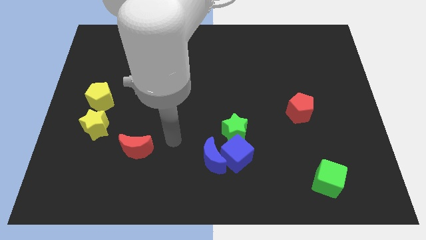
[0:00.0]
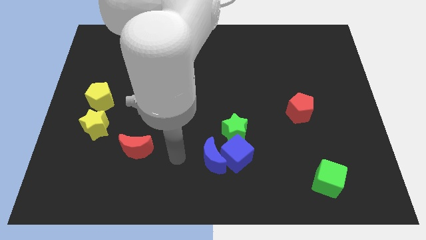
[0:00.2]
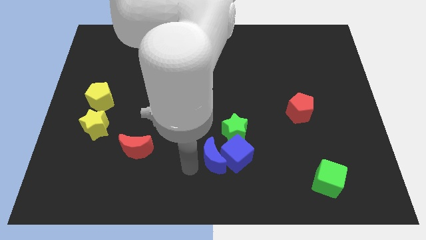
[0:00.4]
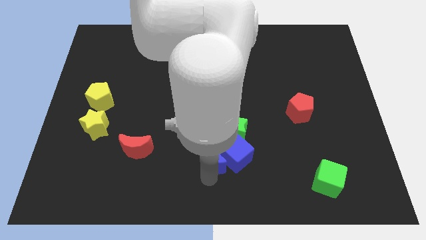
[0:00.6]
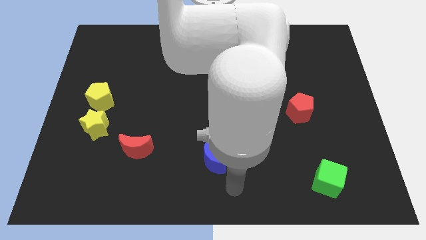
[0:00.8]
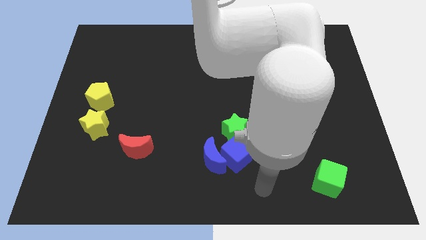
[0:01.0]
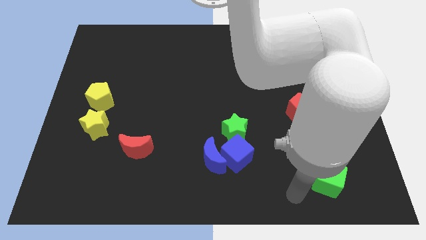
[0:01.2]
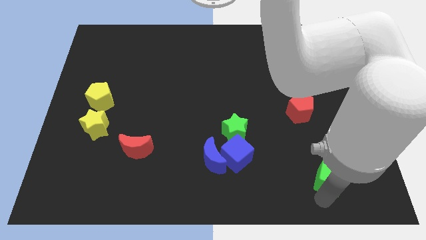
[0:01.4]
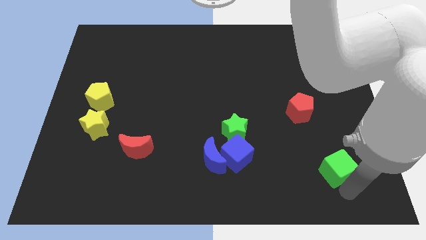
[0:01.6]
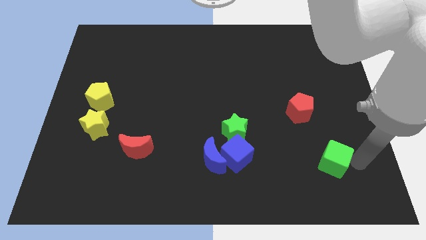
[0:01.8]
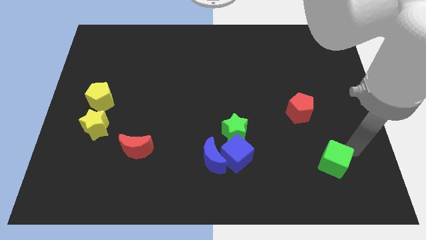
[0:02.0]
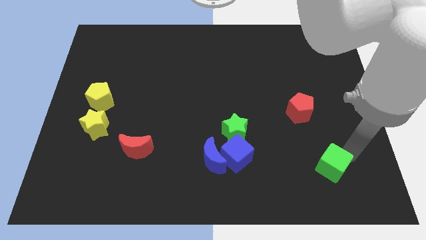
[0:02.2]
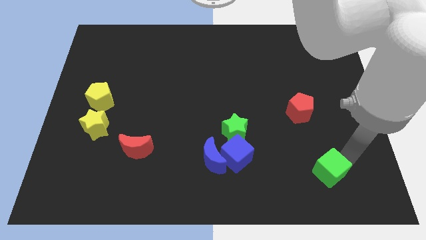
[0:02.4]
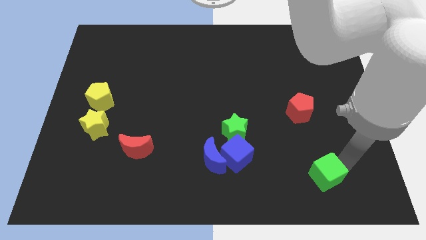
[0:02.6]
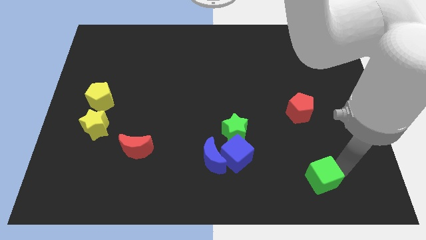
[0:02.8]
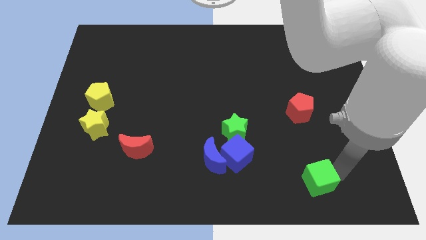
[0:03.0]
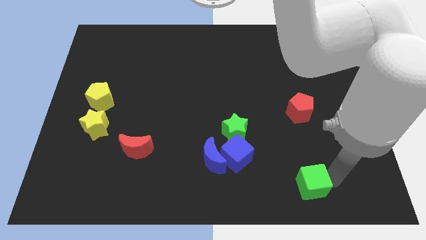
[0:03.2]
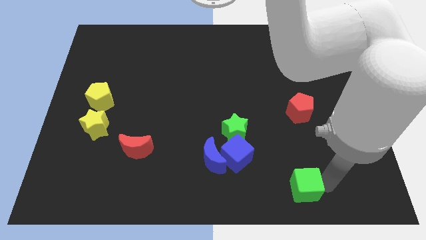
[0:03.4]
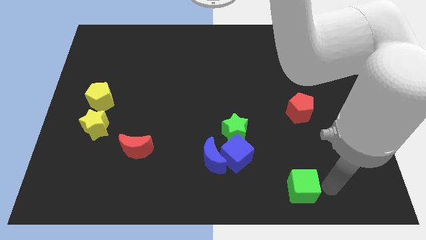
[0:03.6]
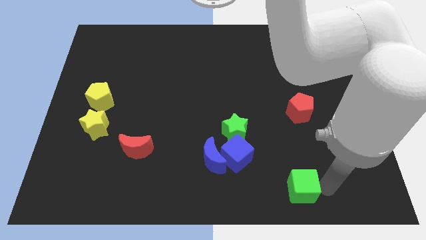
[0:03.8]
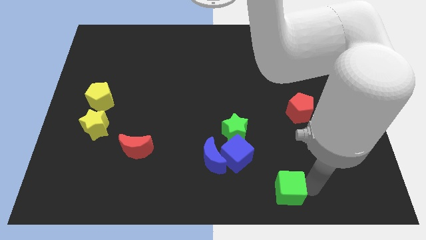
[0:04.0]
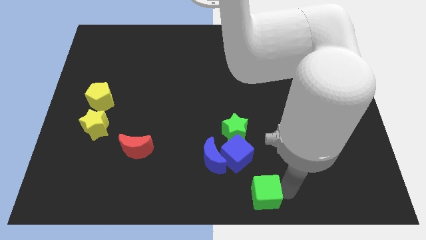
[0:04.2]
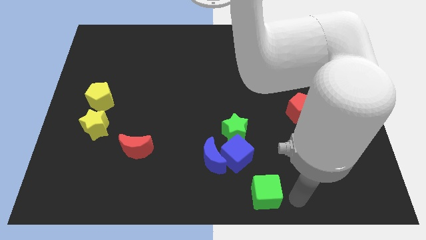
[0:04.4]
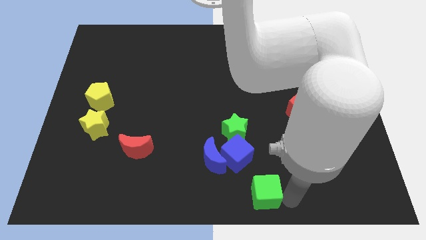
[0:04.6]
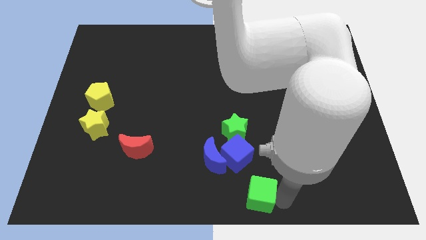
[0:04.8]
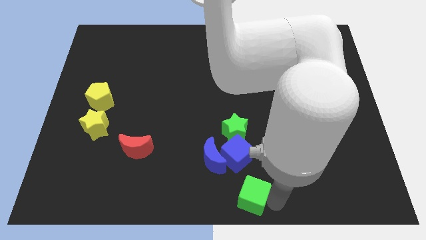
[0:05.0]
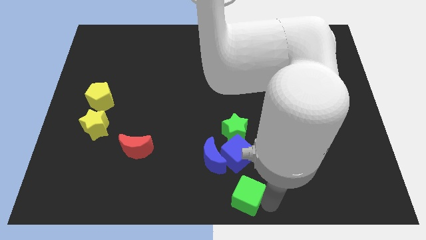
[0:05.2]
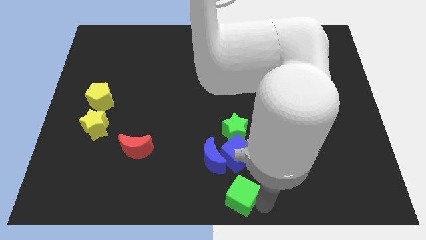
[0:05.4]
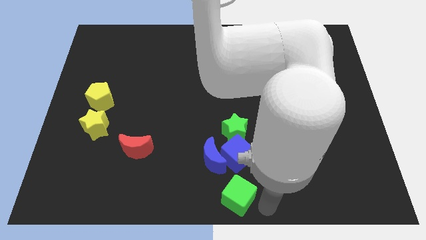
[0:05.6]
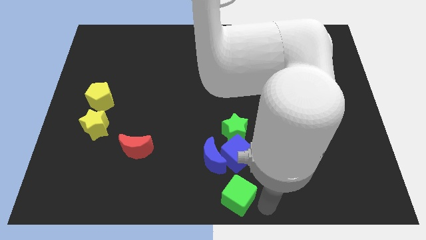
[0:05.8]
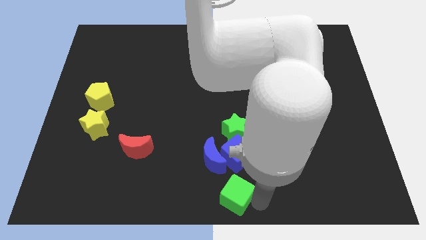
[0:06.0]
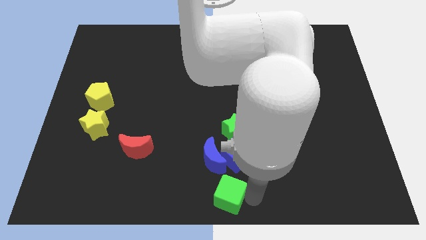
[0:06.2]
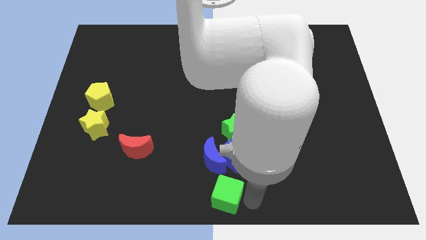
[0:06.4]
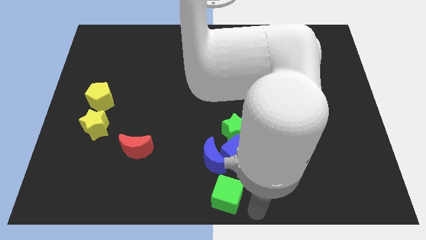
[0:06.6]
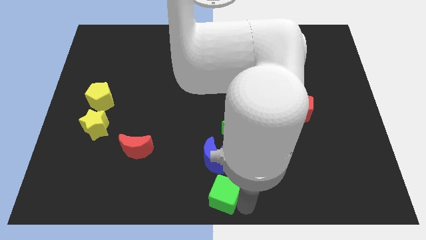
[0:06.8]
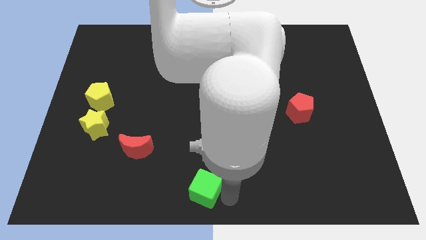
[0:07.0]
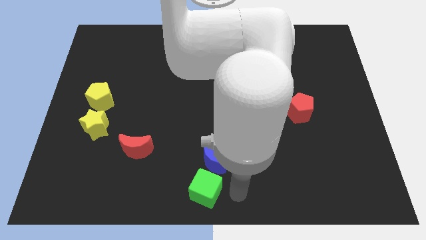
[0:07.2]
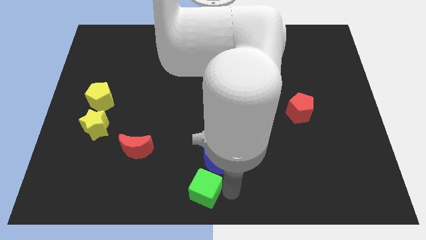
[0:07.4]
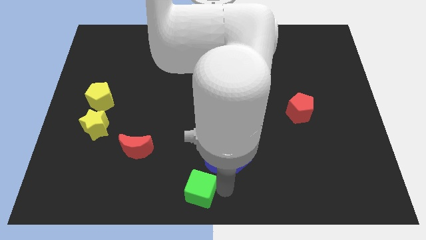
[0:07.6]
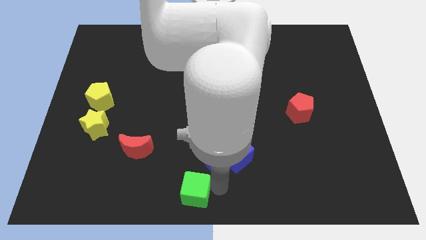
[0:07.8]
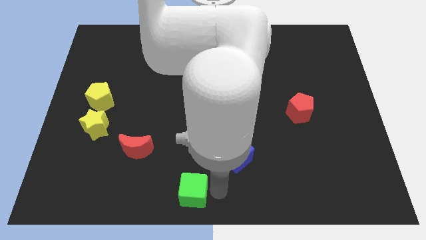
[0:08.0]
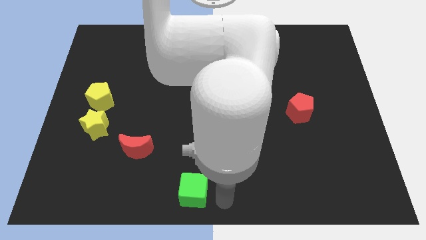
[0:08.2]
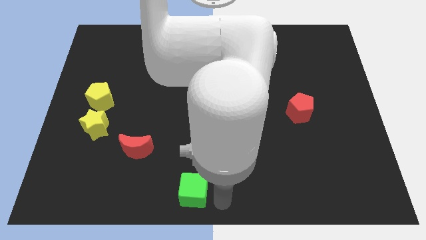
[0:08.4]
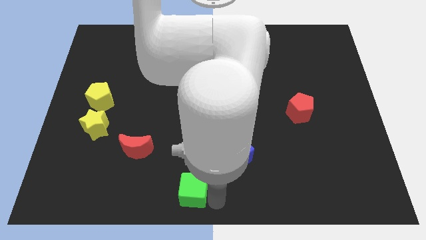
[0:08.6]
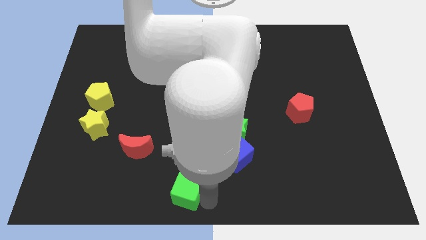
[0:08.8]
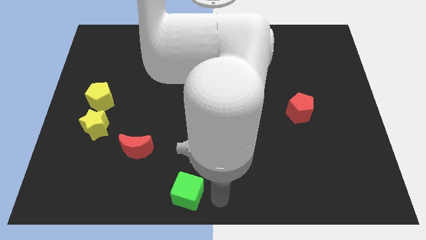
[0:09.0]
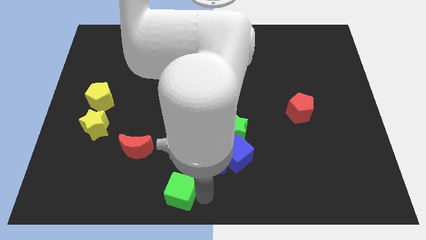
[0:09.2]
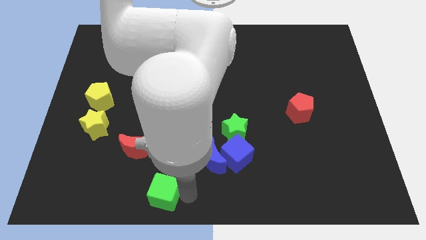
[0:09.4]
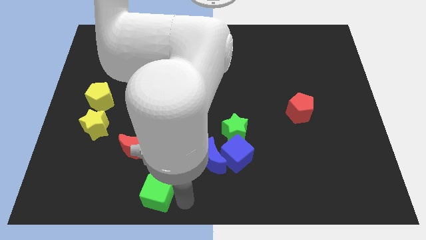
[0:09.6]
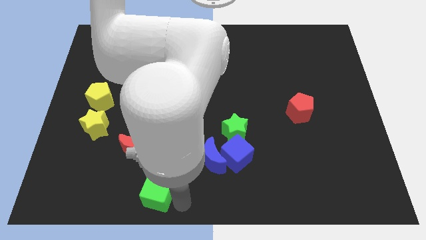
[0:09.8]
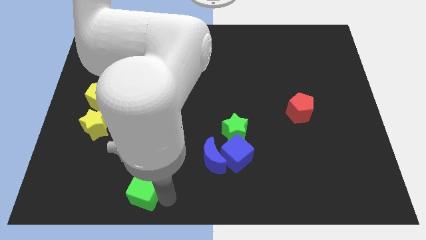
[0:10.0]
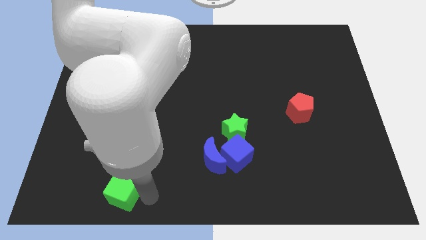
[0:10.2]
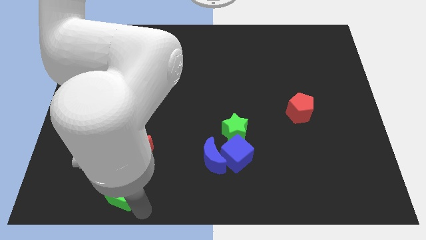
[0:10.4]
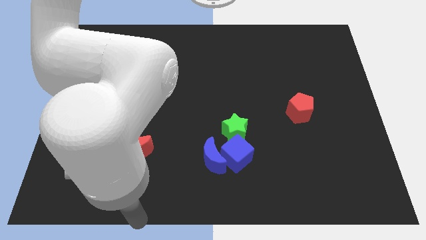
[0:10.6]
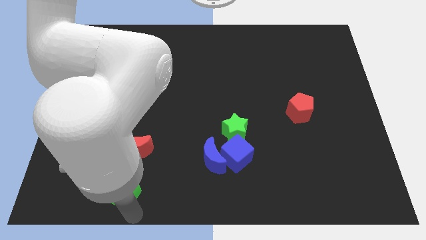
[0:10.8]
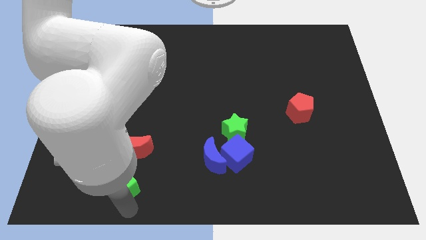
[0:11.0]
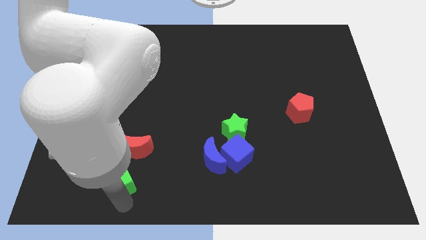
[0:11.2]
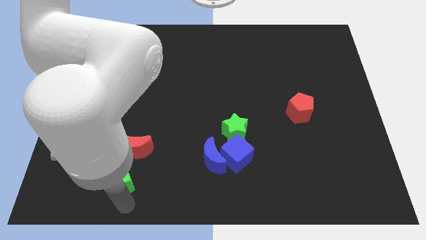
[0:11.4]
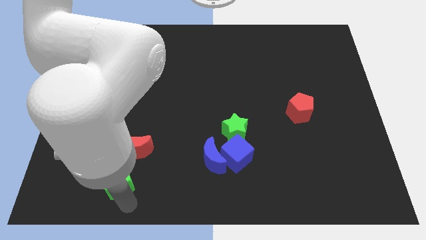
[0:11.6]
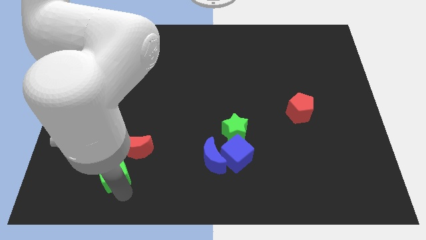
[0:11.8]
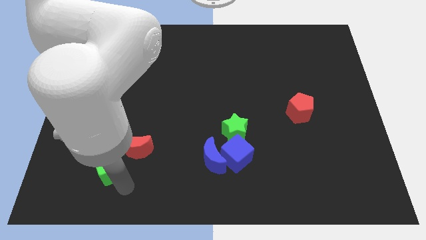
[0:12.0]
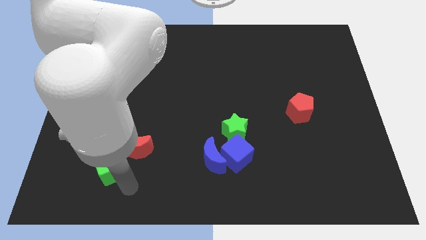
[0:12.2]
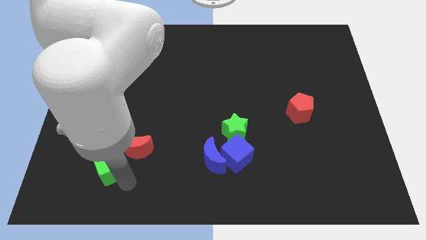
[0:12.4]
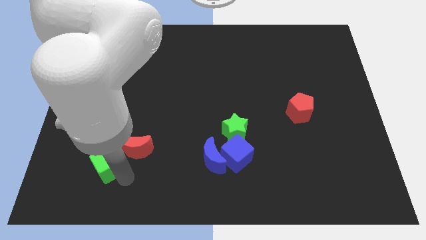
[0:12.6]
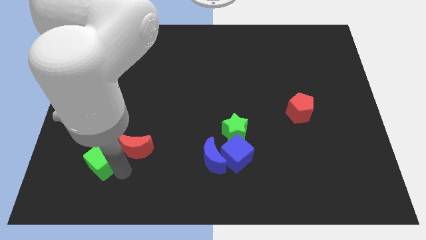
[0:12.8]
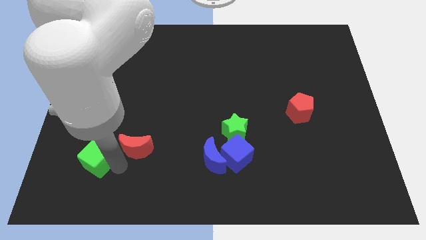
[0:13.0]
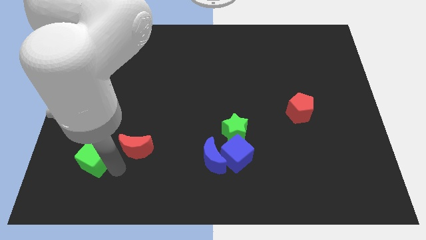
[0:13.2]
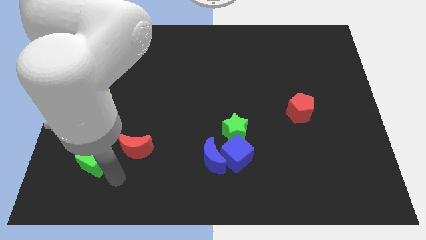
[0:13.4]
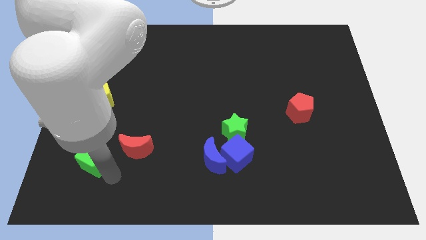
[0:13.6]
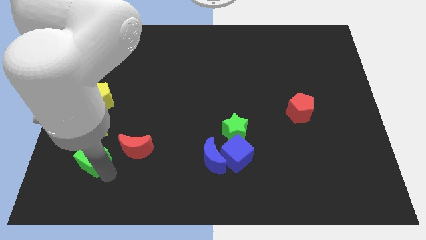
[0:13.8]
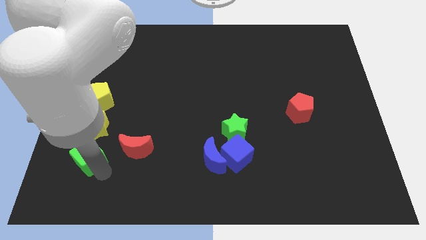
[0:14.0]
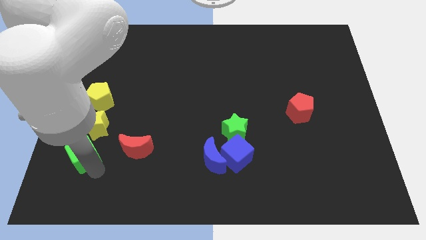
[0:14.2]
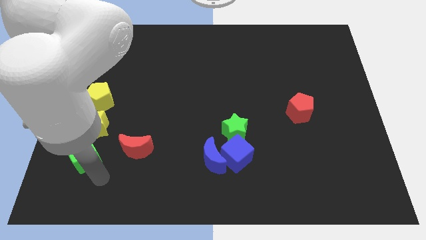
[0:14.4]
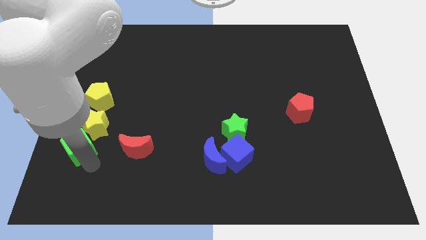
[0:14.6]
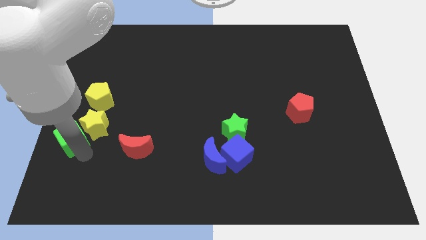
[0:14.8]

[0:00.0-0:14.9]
slide the green cube to the left side of the board
